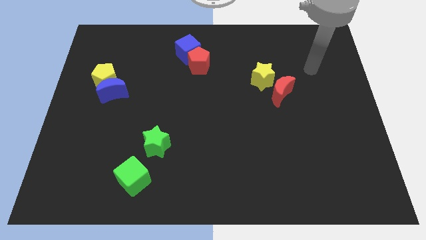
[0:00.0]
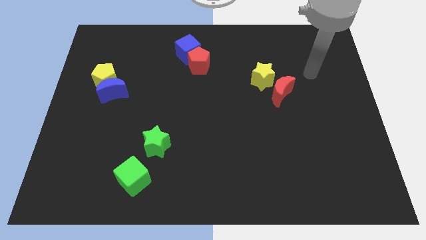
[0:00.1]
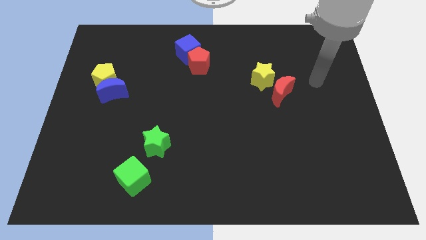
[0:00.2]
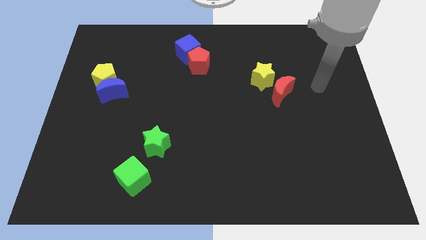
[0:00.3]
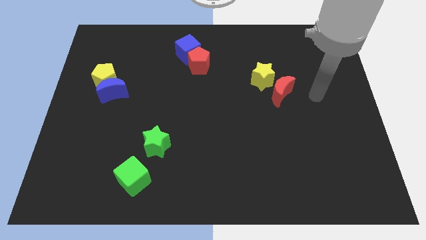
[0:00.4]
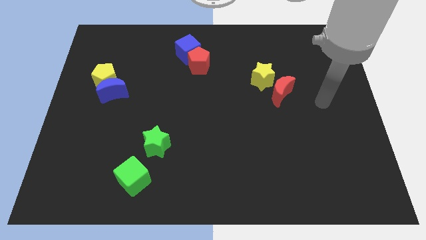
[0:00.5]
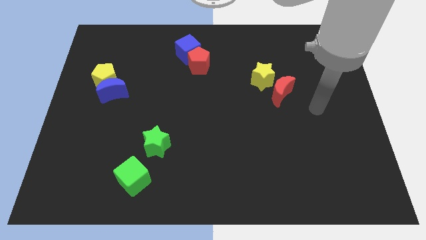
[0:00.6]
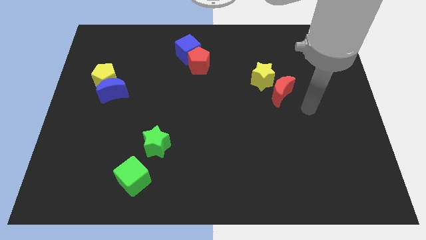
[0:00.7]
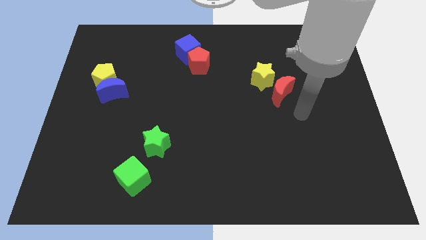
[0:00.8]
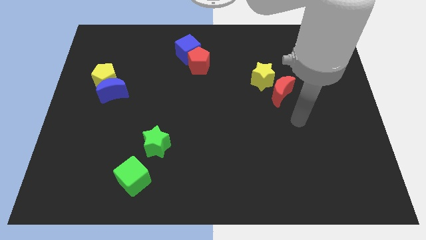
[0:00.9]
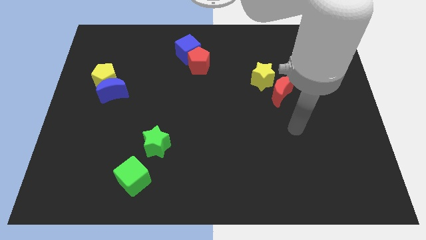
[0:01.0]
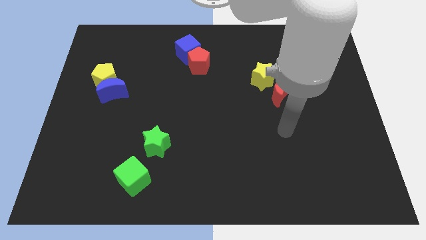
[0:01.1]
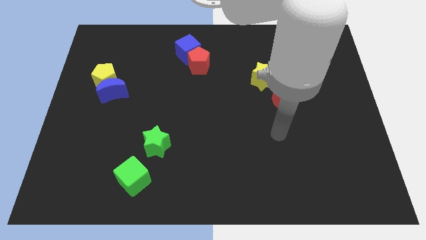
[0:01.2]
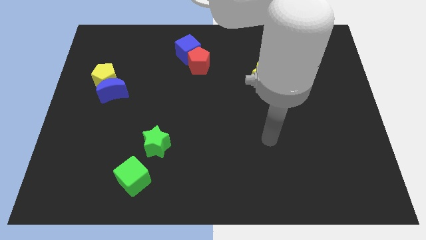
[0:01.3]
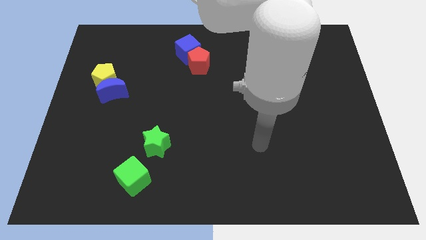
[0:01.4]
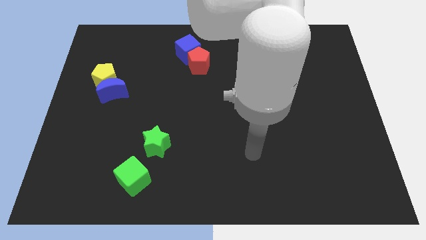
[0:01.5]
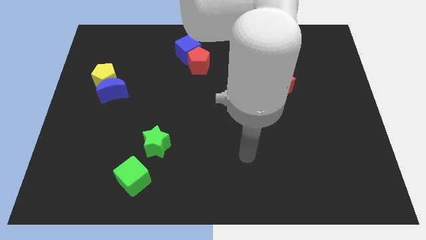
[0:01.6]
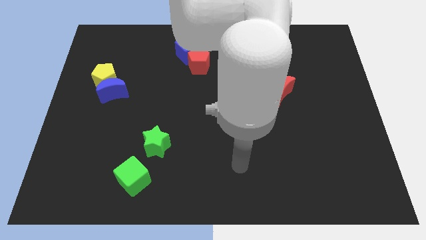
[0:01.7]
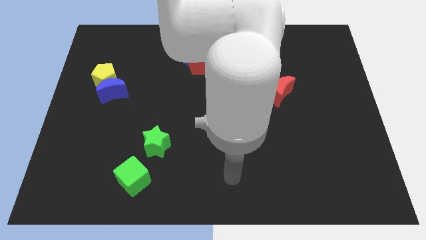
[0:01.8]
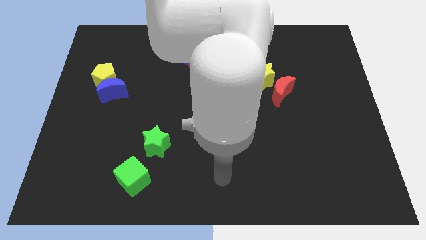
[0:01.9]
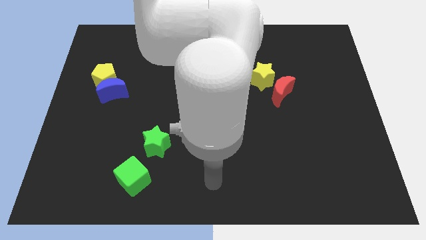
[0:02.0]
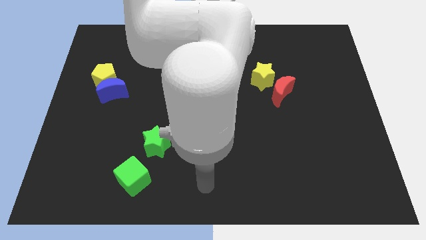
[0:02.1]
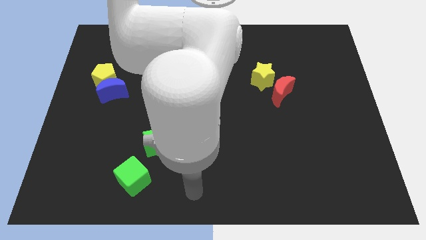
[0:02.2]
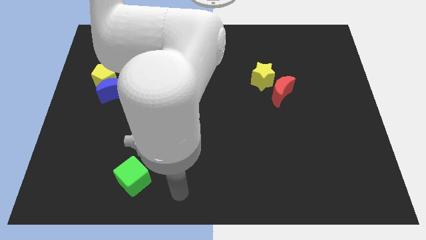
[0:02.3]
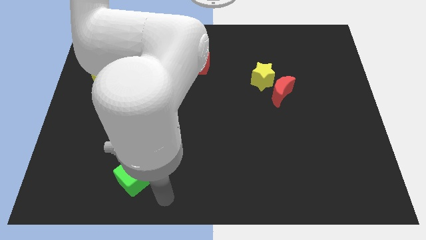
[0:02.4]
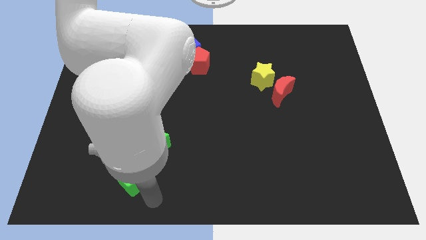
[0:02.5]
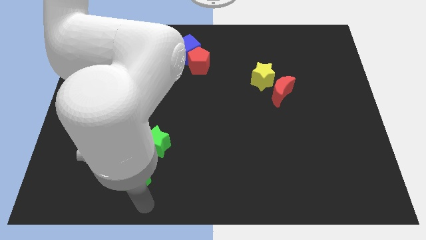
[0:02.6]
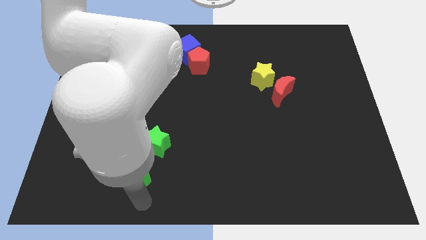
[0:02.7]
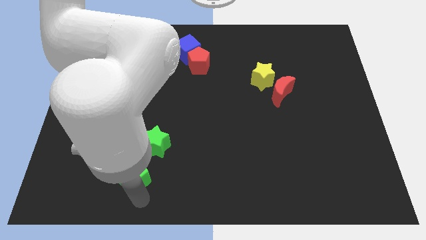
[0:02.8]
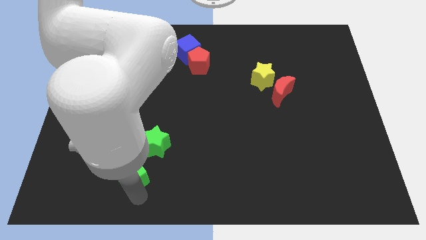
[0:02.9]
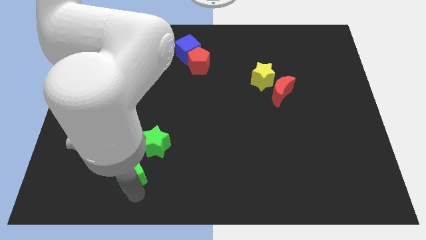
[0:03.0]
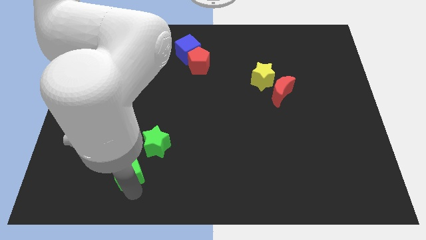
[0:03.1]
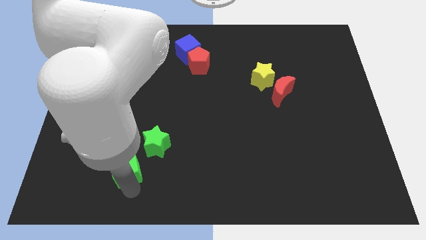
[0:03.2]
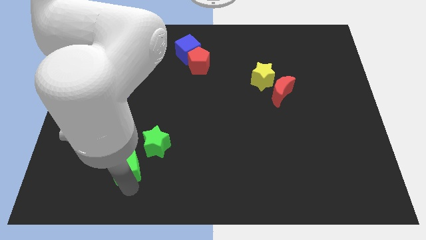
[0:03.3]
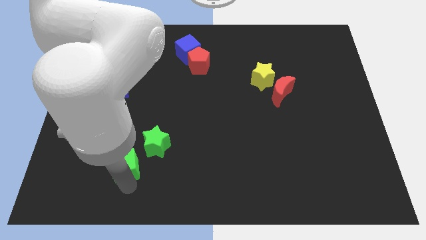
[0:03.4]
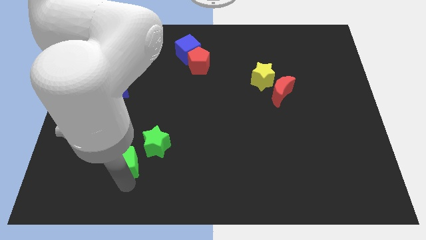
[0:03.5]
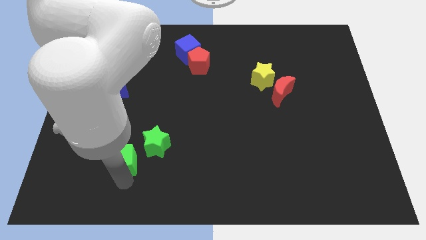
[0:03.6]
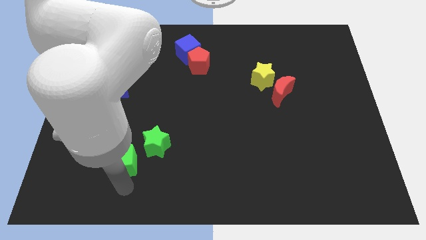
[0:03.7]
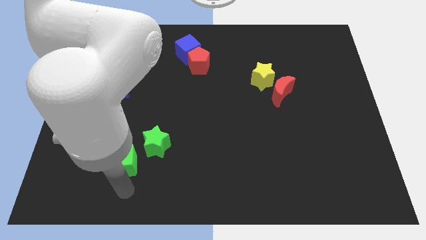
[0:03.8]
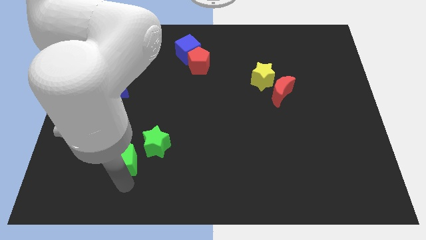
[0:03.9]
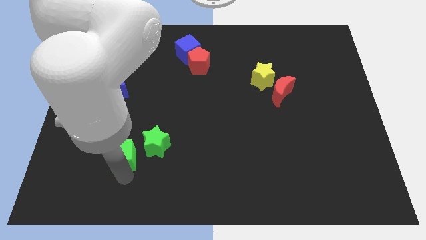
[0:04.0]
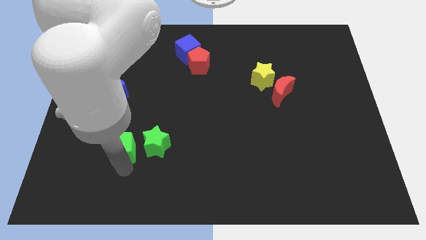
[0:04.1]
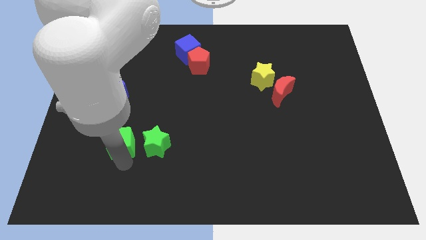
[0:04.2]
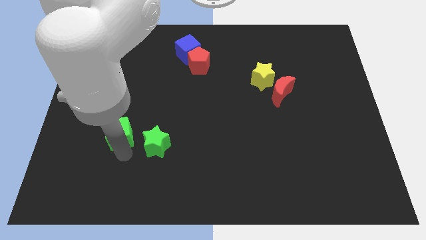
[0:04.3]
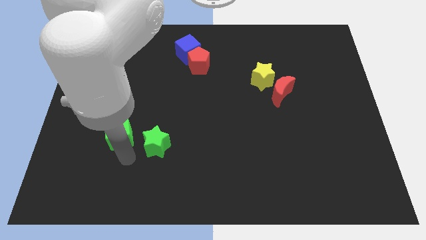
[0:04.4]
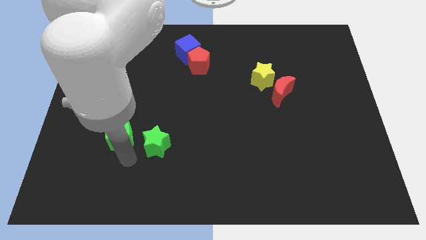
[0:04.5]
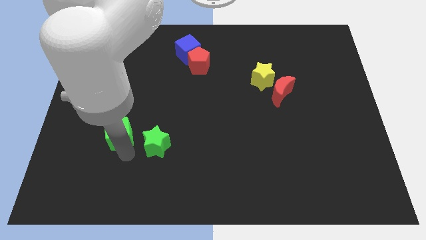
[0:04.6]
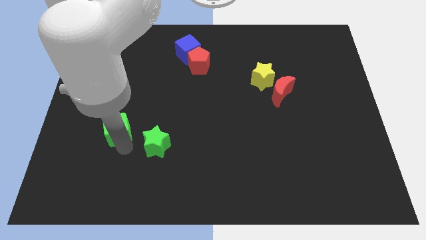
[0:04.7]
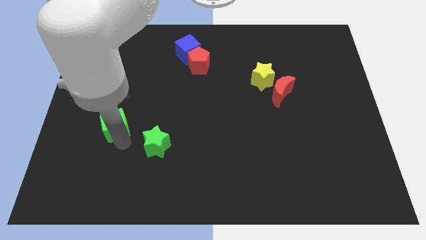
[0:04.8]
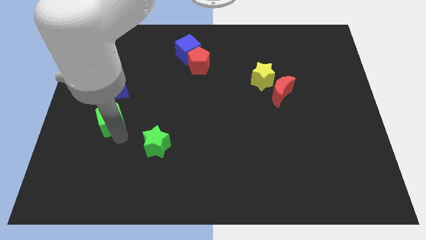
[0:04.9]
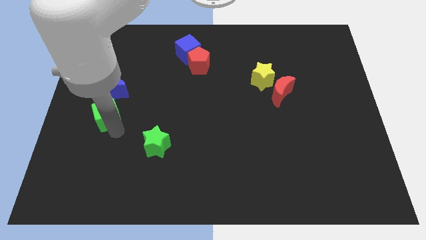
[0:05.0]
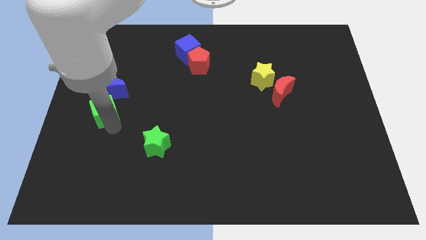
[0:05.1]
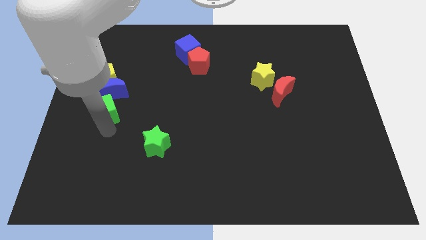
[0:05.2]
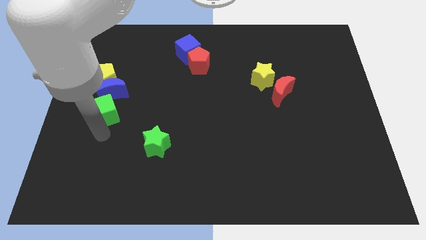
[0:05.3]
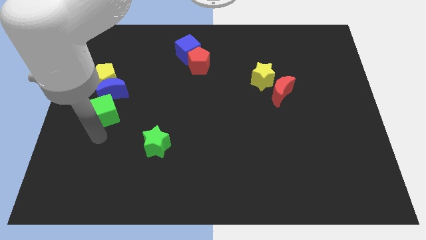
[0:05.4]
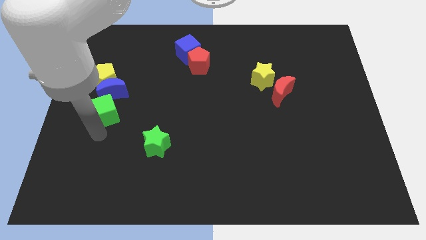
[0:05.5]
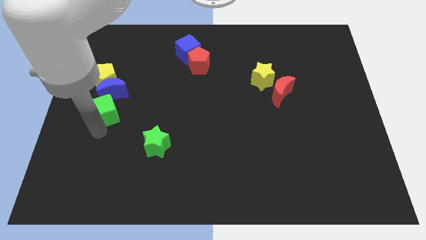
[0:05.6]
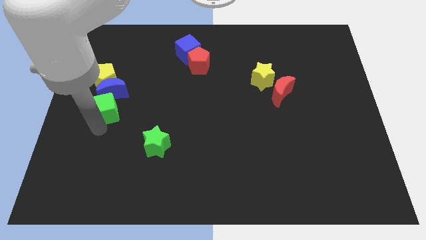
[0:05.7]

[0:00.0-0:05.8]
push the green cube next to the blue moon

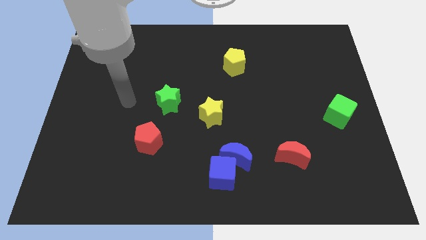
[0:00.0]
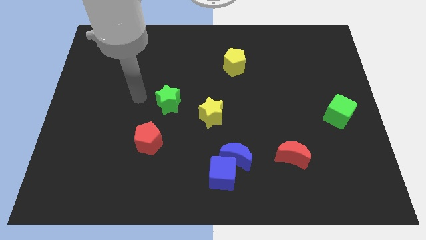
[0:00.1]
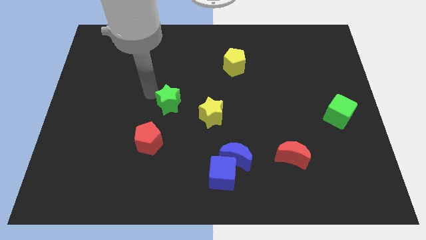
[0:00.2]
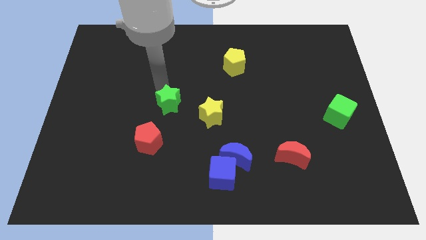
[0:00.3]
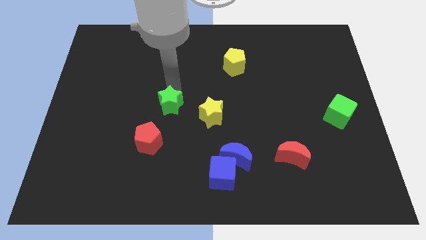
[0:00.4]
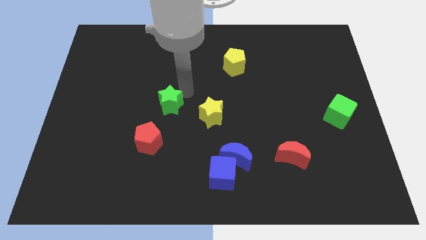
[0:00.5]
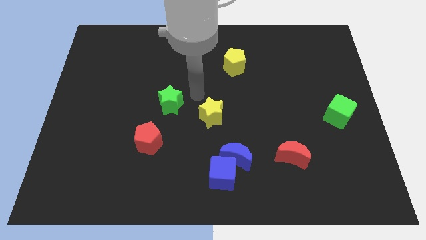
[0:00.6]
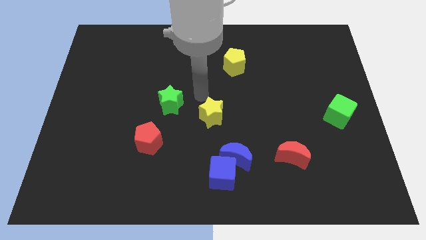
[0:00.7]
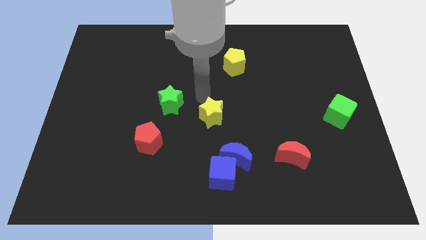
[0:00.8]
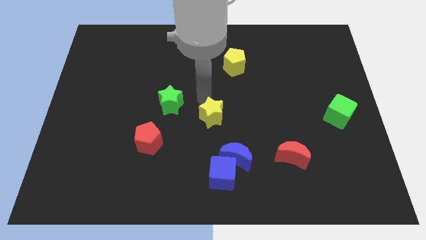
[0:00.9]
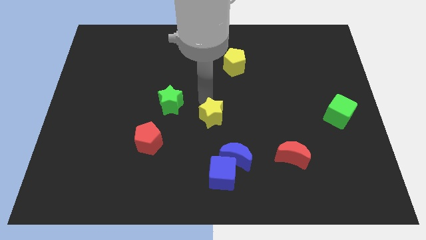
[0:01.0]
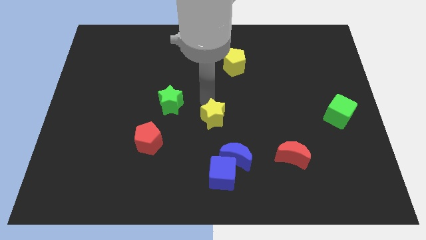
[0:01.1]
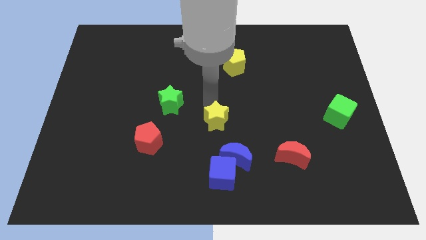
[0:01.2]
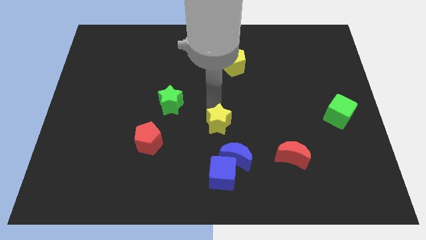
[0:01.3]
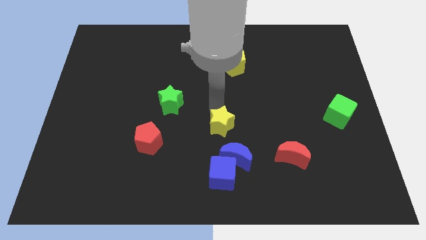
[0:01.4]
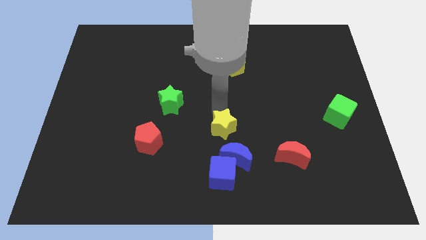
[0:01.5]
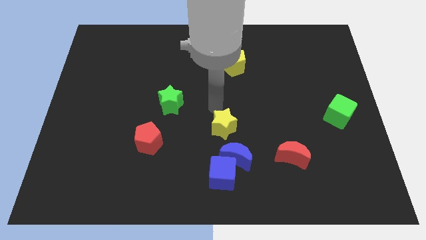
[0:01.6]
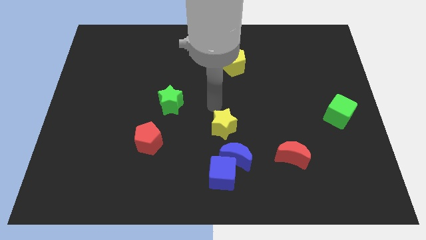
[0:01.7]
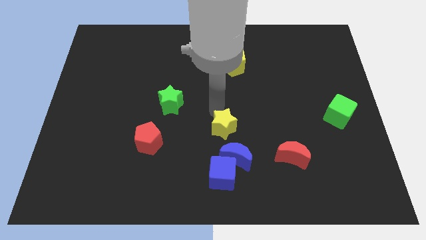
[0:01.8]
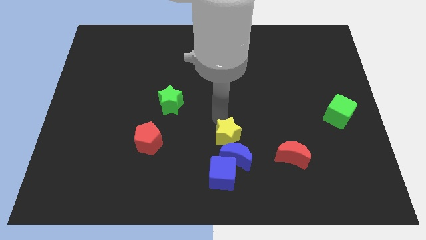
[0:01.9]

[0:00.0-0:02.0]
move the yellow star close to the blue moon
